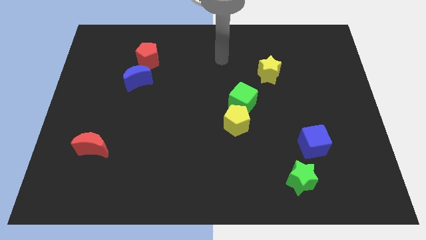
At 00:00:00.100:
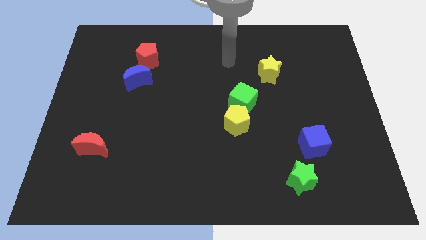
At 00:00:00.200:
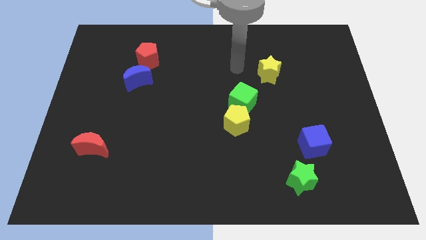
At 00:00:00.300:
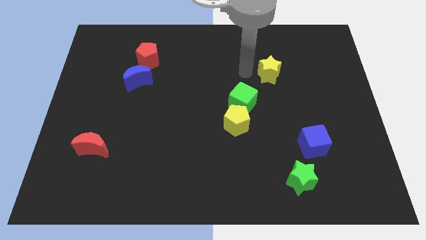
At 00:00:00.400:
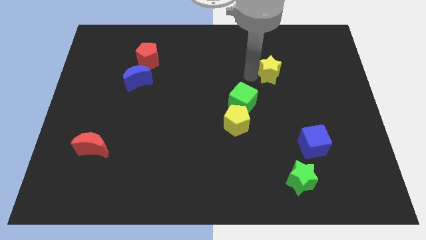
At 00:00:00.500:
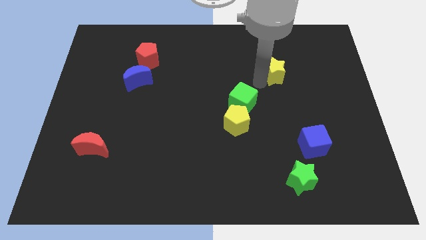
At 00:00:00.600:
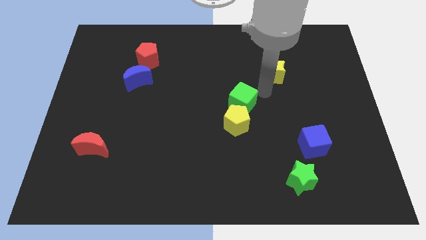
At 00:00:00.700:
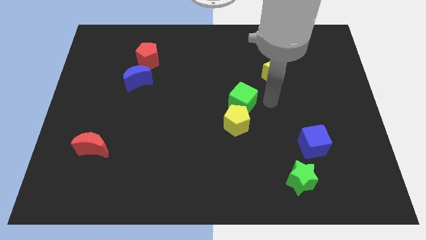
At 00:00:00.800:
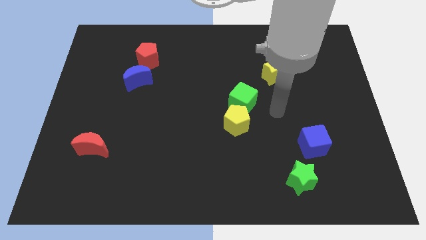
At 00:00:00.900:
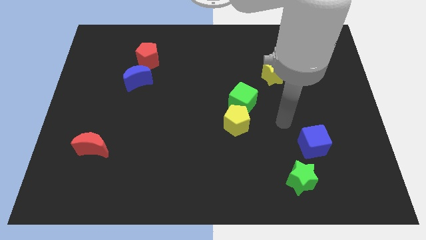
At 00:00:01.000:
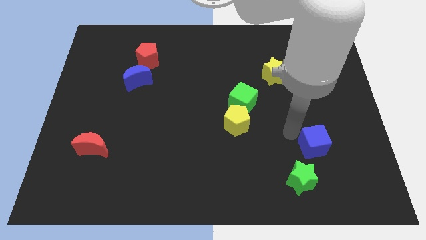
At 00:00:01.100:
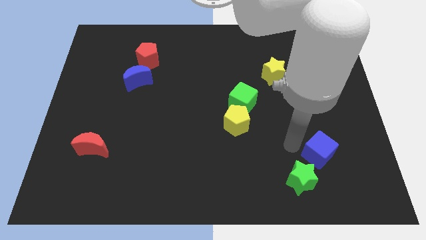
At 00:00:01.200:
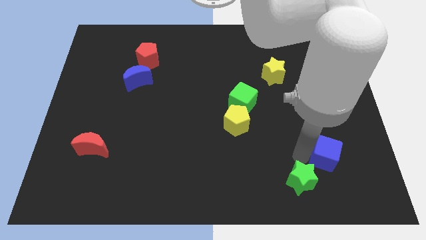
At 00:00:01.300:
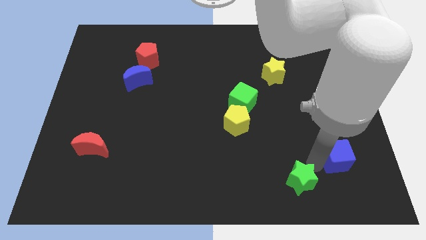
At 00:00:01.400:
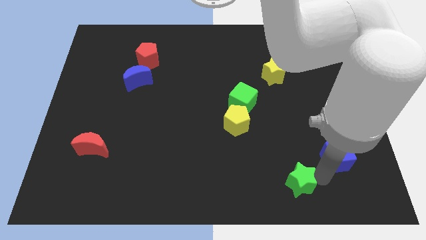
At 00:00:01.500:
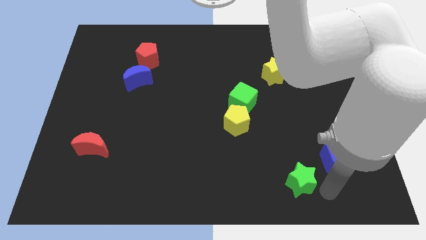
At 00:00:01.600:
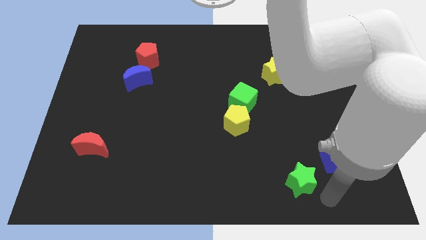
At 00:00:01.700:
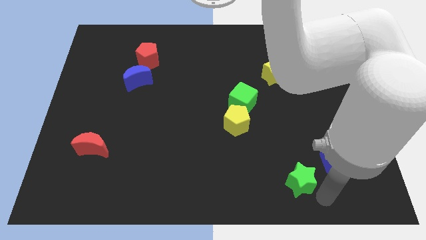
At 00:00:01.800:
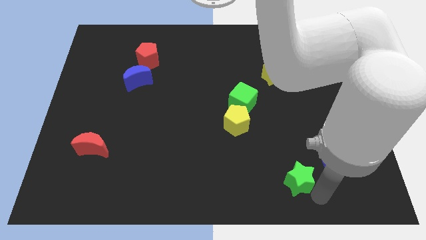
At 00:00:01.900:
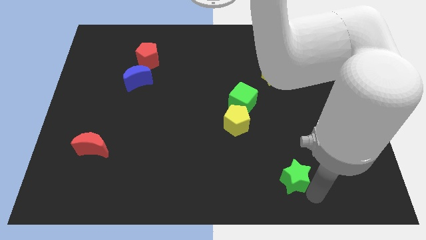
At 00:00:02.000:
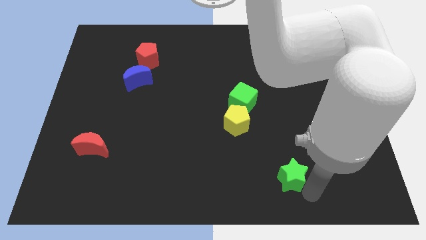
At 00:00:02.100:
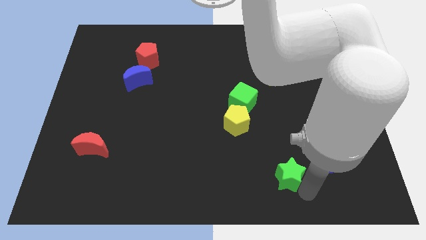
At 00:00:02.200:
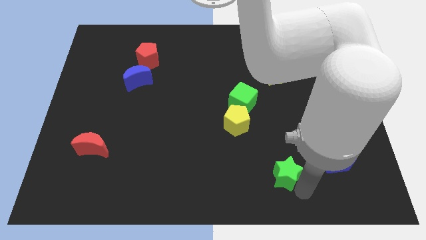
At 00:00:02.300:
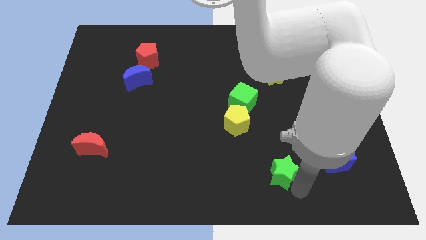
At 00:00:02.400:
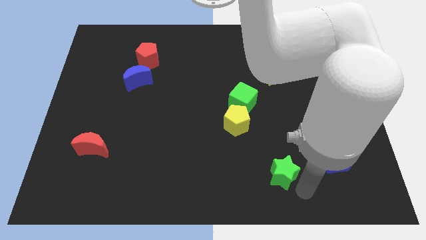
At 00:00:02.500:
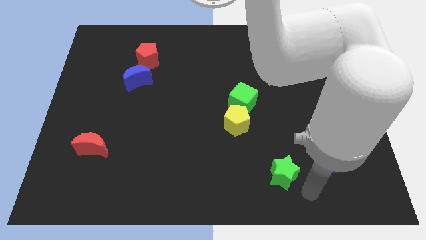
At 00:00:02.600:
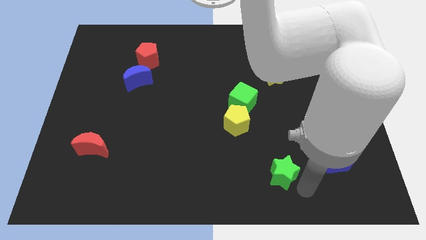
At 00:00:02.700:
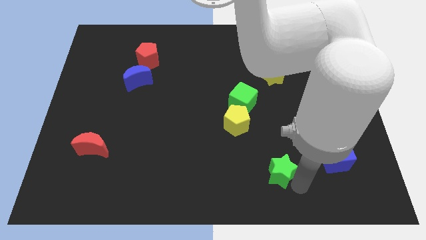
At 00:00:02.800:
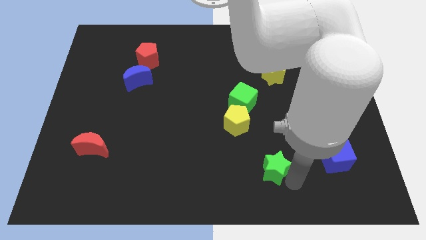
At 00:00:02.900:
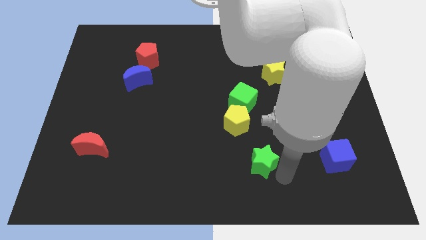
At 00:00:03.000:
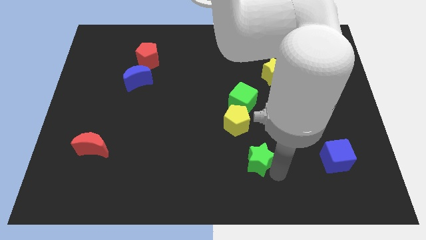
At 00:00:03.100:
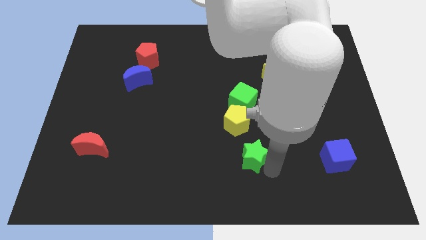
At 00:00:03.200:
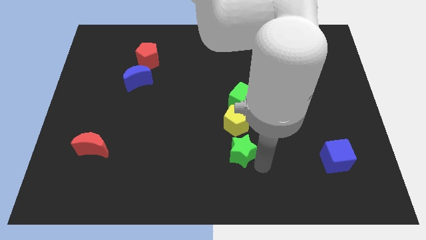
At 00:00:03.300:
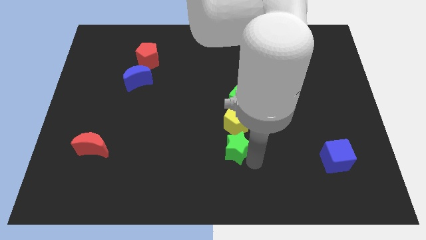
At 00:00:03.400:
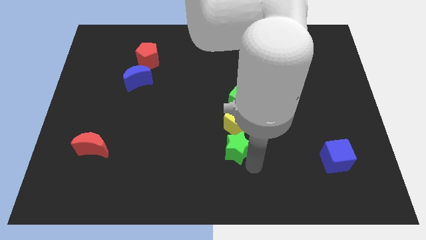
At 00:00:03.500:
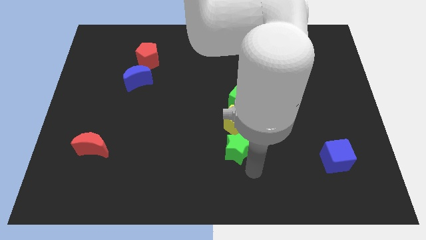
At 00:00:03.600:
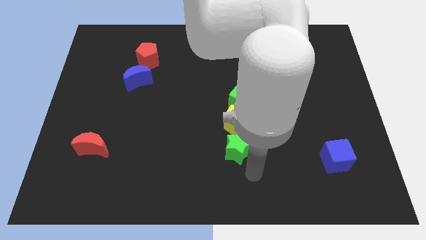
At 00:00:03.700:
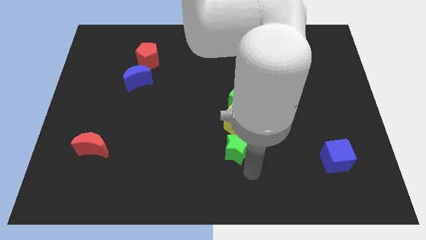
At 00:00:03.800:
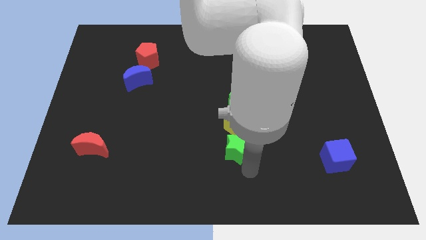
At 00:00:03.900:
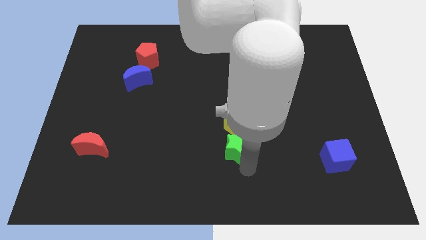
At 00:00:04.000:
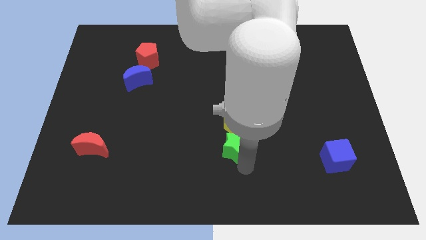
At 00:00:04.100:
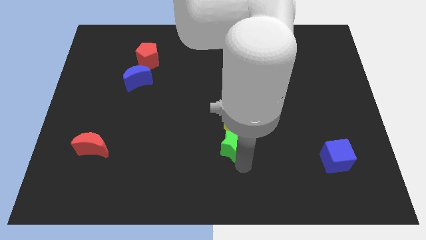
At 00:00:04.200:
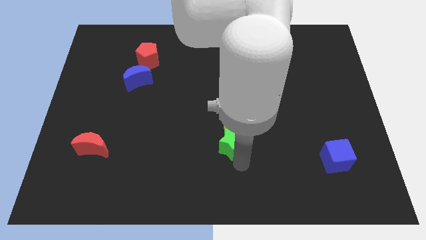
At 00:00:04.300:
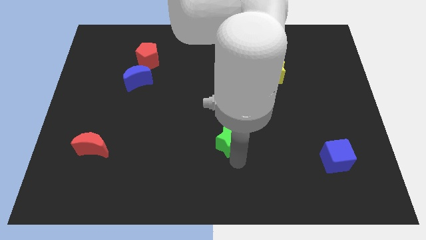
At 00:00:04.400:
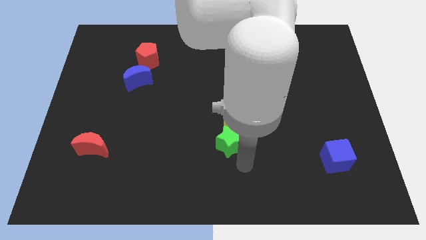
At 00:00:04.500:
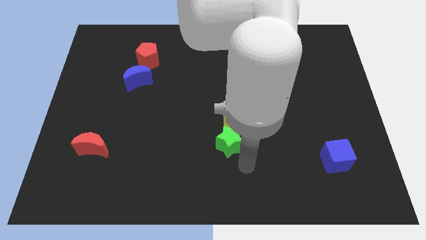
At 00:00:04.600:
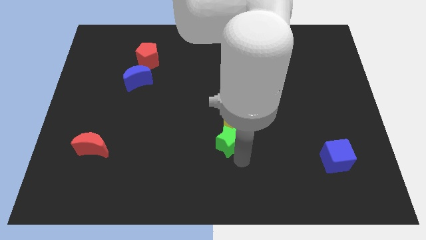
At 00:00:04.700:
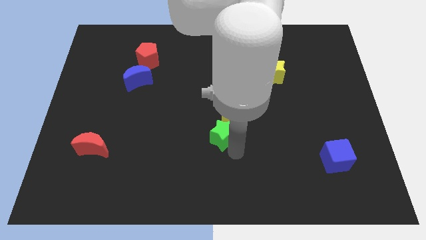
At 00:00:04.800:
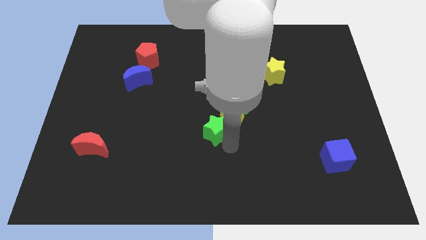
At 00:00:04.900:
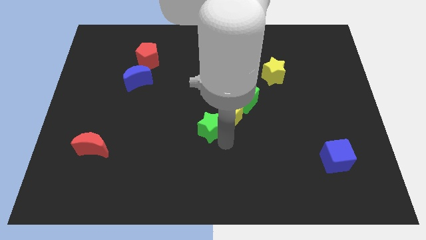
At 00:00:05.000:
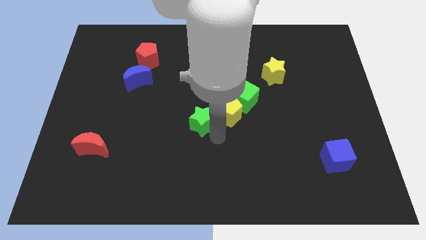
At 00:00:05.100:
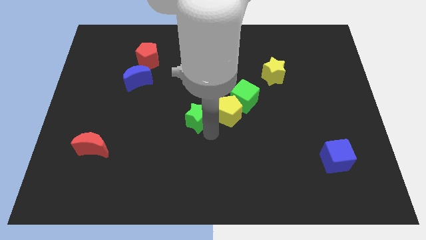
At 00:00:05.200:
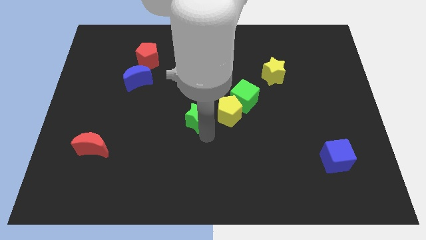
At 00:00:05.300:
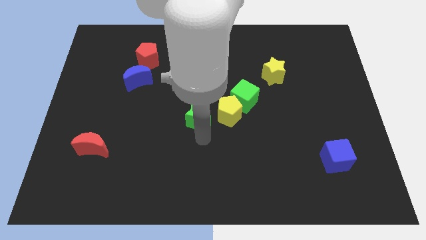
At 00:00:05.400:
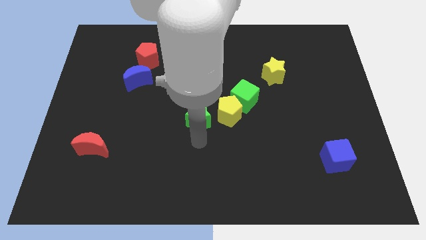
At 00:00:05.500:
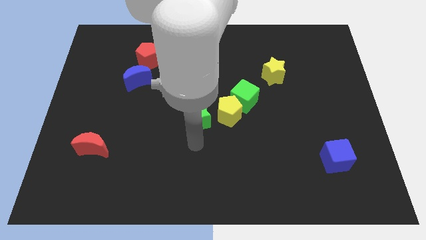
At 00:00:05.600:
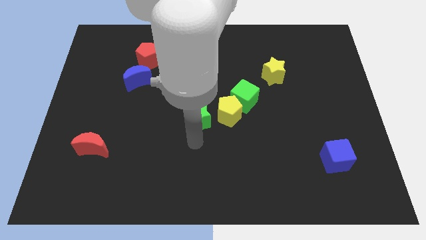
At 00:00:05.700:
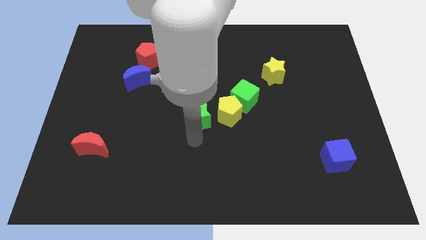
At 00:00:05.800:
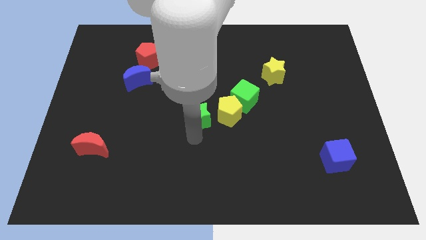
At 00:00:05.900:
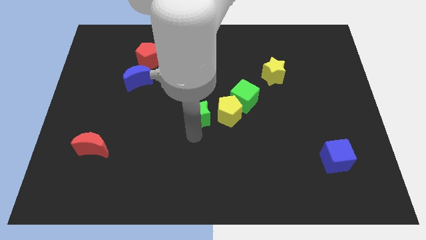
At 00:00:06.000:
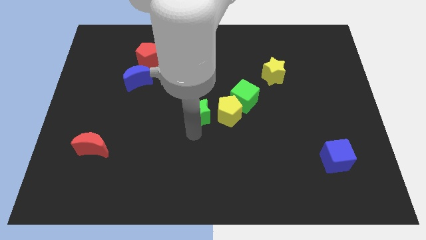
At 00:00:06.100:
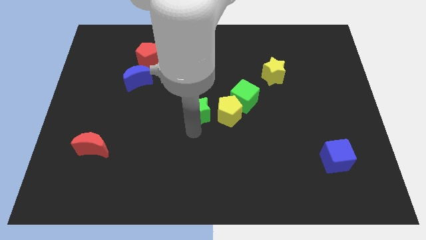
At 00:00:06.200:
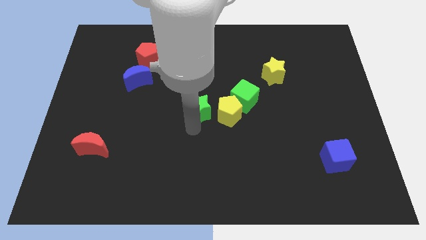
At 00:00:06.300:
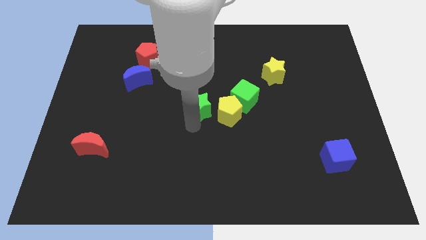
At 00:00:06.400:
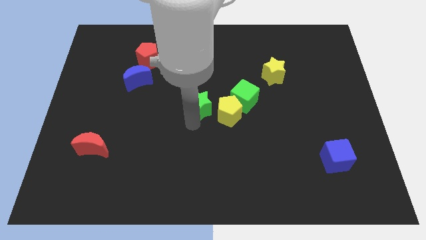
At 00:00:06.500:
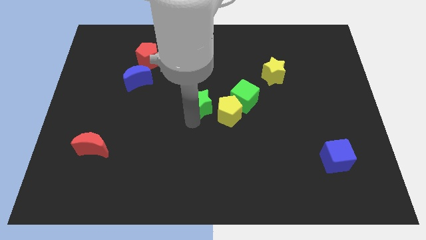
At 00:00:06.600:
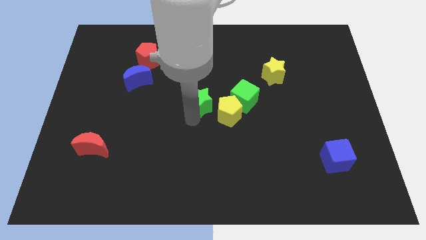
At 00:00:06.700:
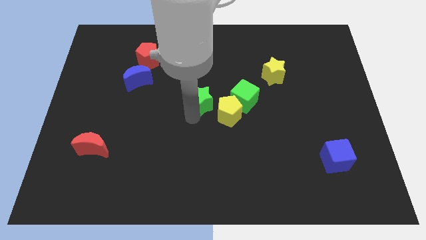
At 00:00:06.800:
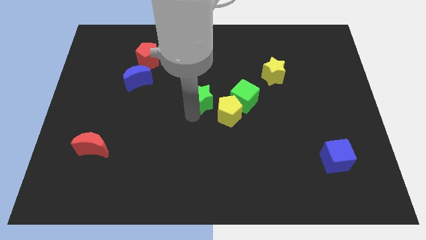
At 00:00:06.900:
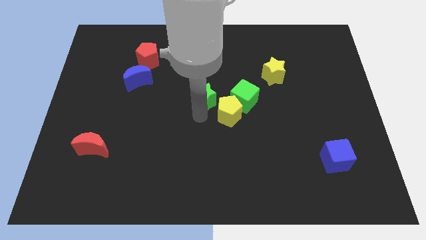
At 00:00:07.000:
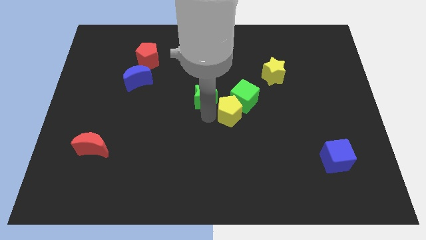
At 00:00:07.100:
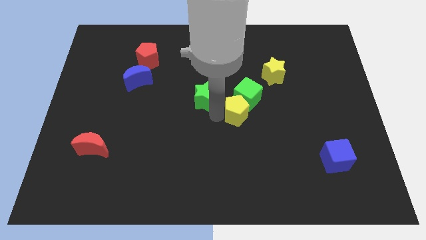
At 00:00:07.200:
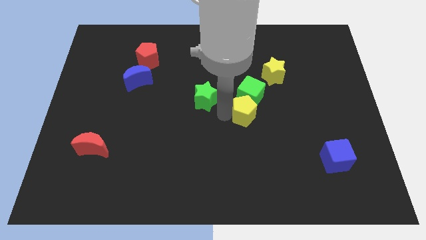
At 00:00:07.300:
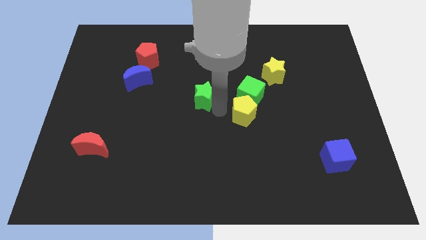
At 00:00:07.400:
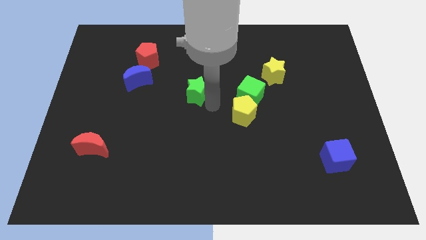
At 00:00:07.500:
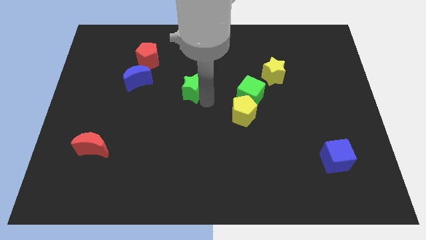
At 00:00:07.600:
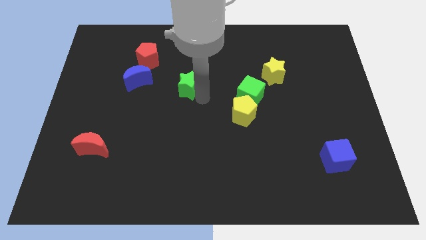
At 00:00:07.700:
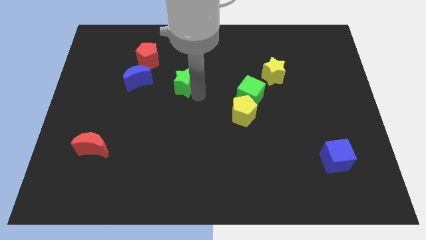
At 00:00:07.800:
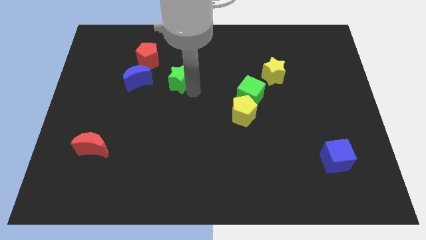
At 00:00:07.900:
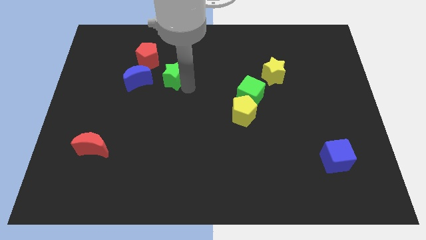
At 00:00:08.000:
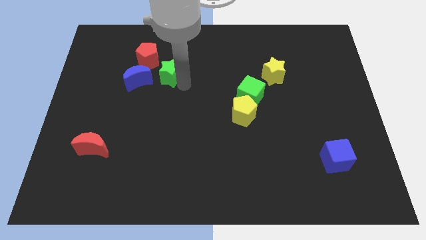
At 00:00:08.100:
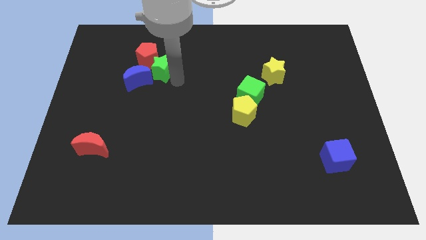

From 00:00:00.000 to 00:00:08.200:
move the green star towards the red pentagon

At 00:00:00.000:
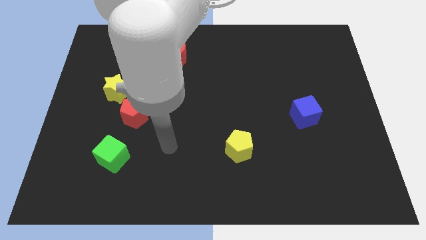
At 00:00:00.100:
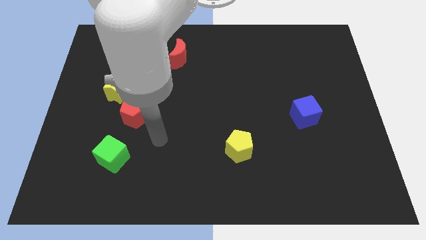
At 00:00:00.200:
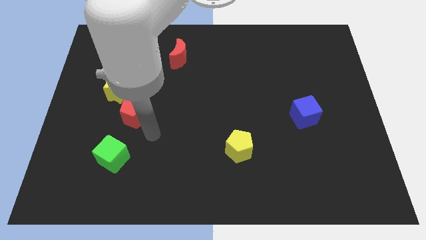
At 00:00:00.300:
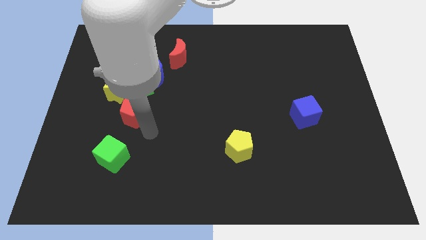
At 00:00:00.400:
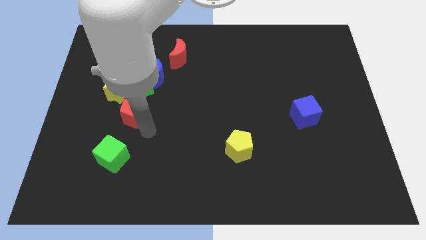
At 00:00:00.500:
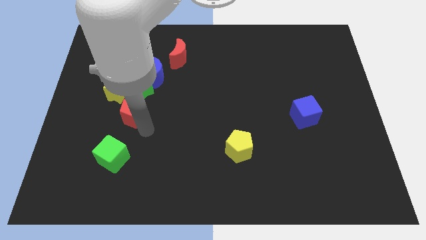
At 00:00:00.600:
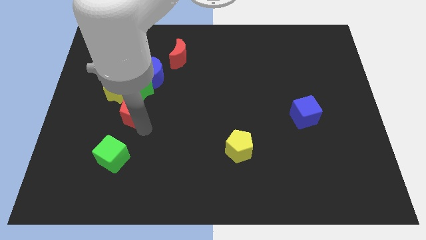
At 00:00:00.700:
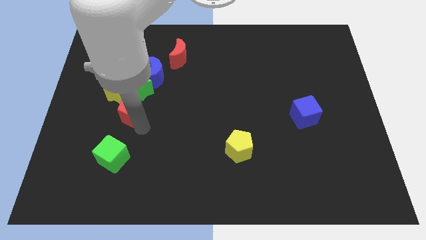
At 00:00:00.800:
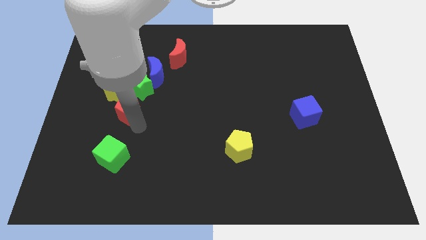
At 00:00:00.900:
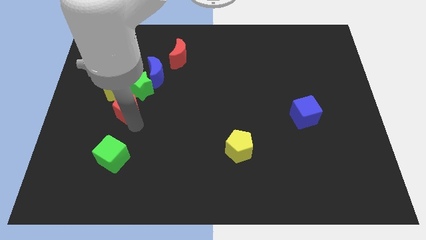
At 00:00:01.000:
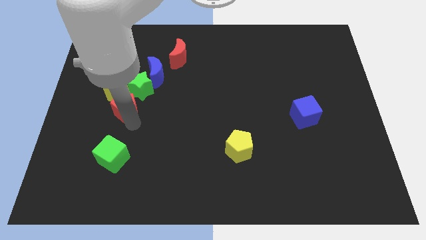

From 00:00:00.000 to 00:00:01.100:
put the red pentagon to the yellow star
